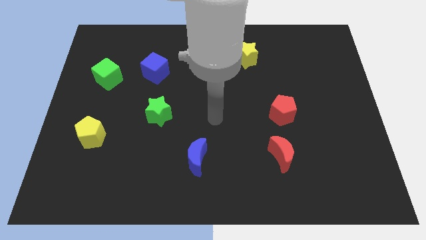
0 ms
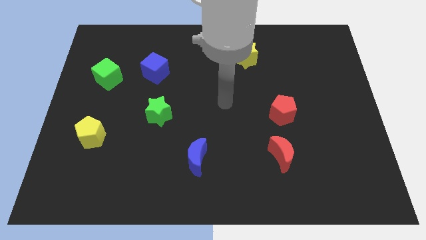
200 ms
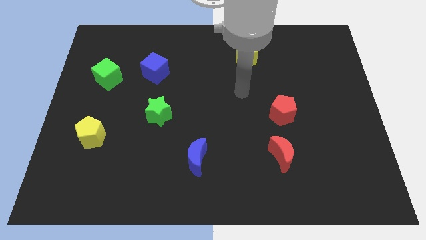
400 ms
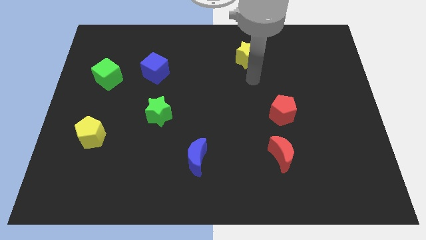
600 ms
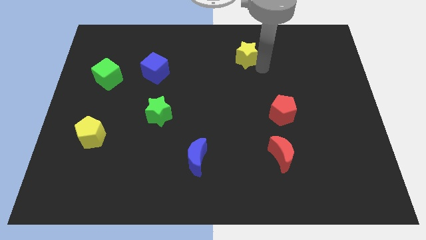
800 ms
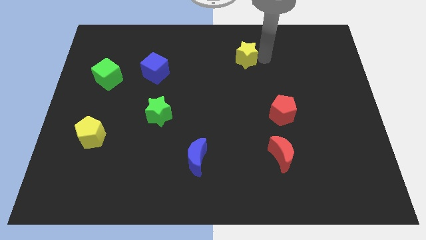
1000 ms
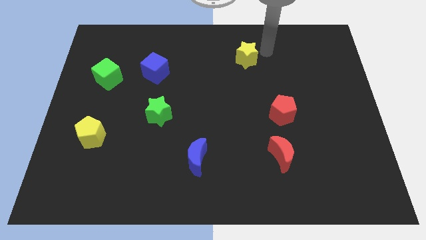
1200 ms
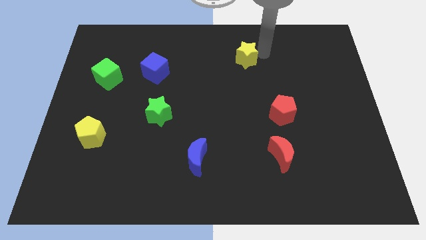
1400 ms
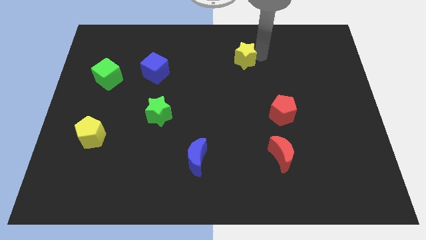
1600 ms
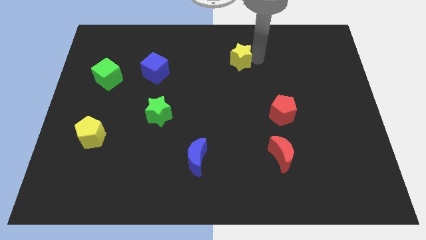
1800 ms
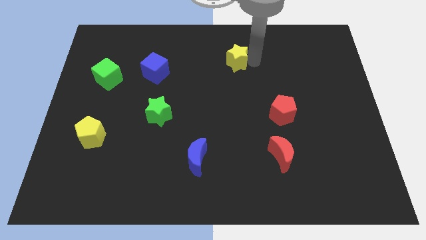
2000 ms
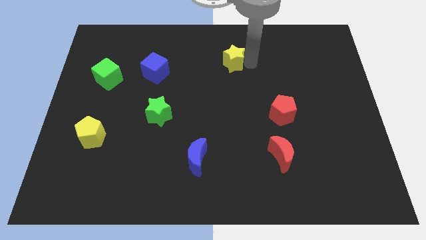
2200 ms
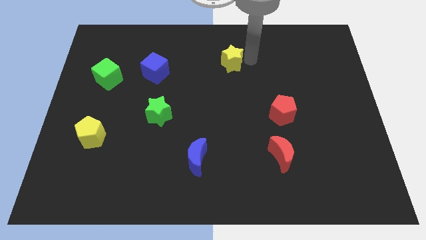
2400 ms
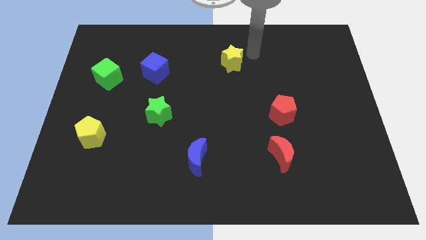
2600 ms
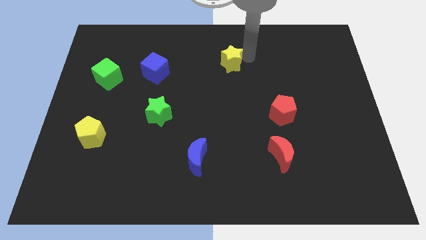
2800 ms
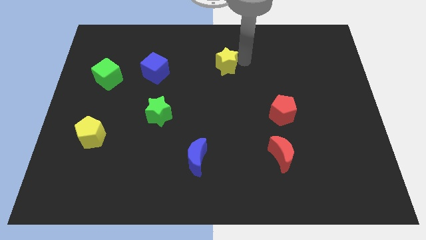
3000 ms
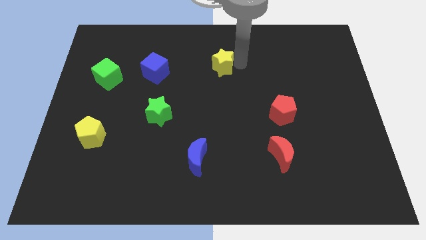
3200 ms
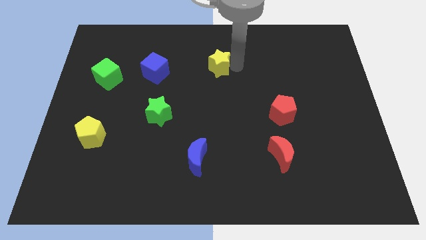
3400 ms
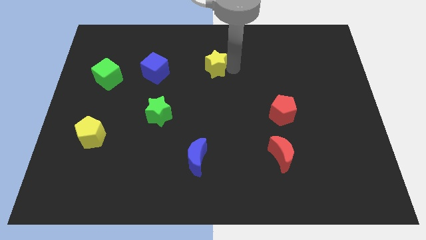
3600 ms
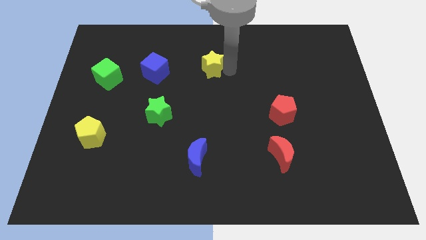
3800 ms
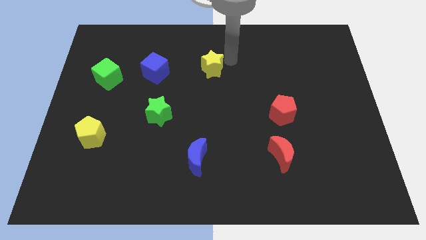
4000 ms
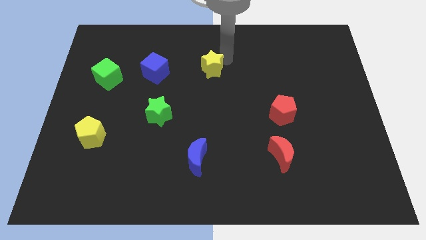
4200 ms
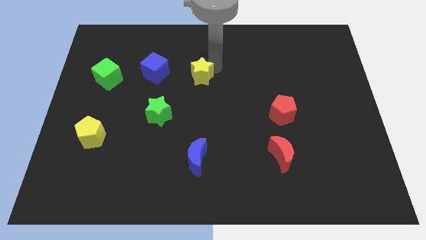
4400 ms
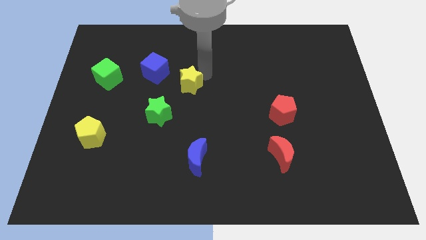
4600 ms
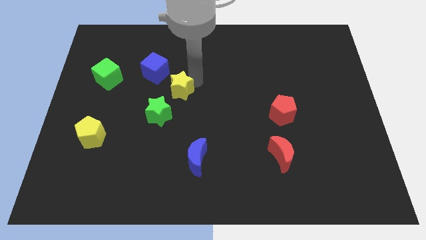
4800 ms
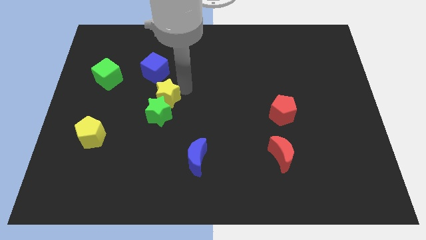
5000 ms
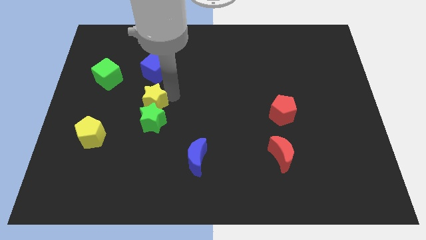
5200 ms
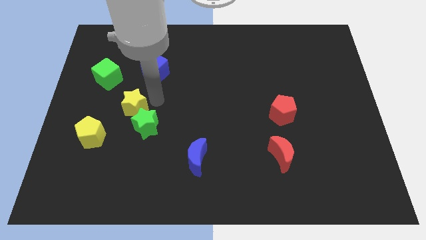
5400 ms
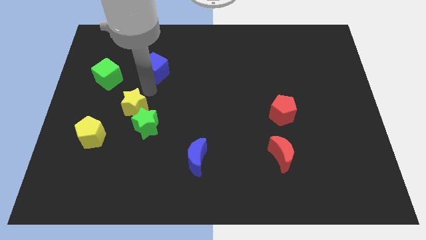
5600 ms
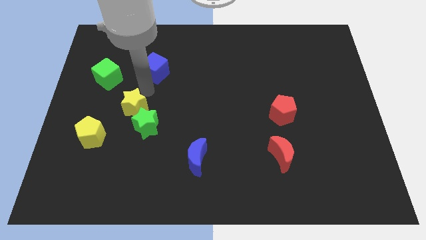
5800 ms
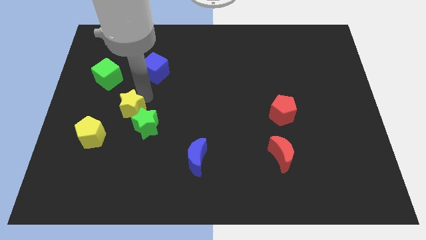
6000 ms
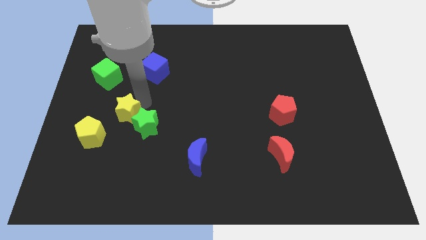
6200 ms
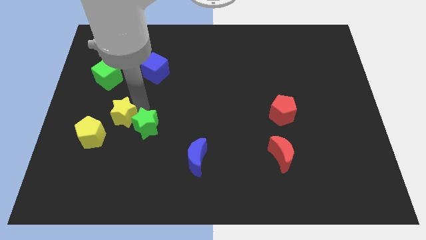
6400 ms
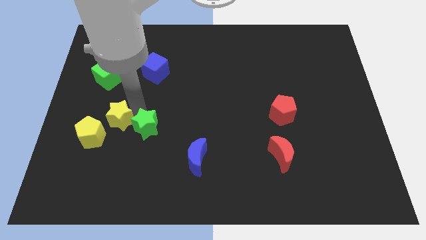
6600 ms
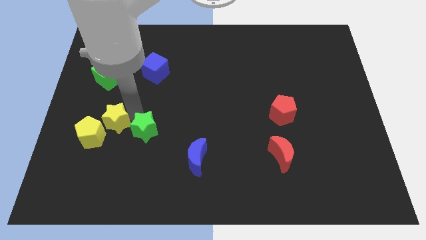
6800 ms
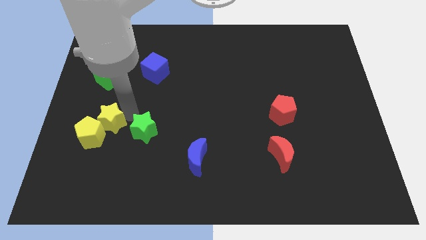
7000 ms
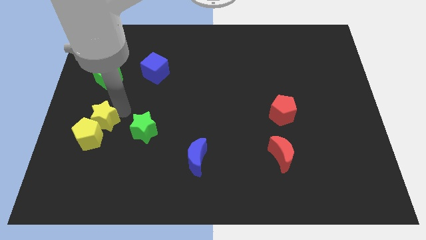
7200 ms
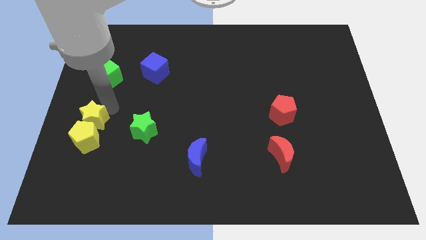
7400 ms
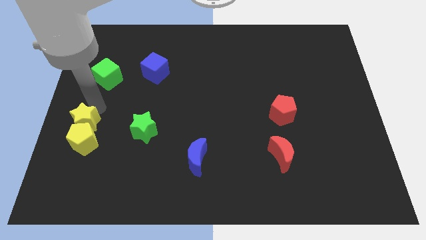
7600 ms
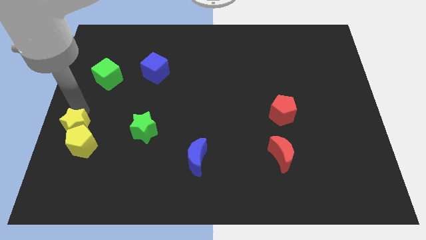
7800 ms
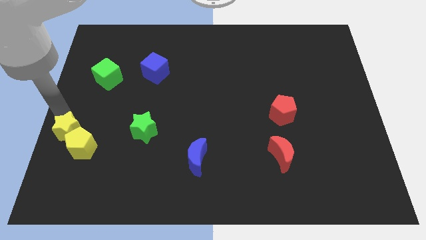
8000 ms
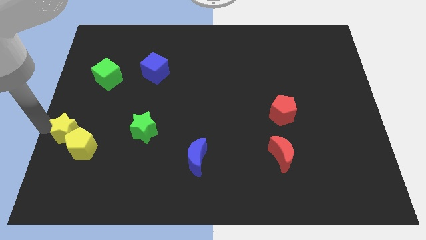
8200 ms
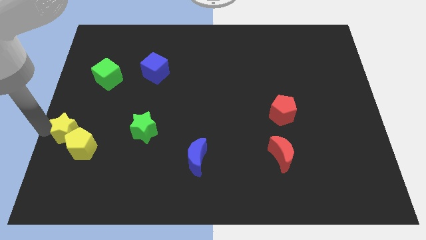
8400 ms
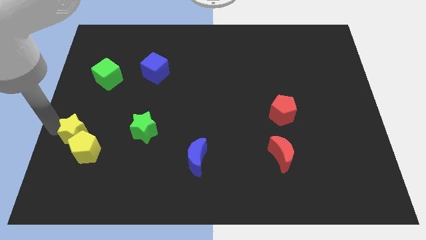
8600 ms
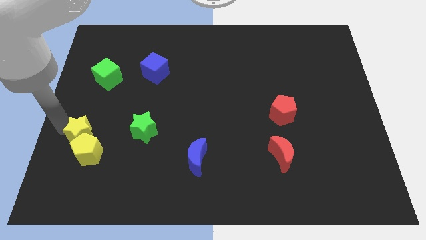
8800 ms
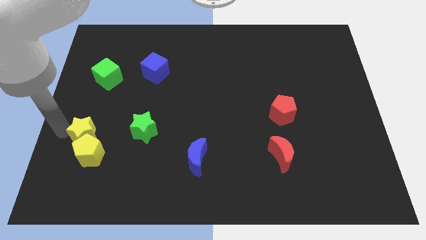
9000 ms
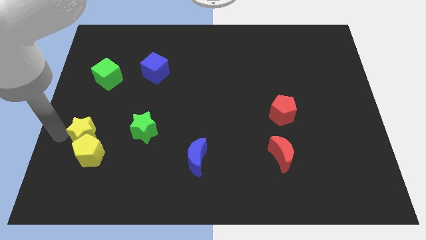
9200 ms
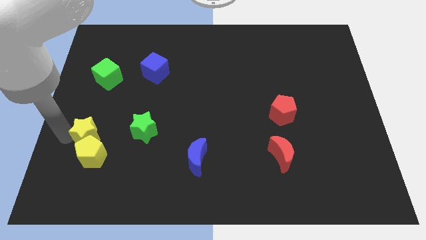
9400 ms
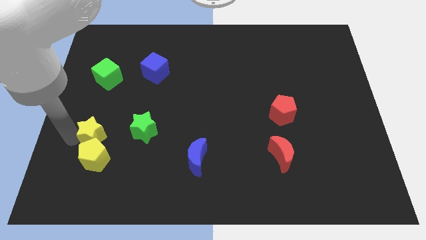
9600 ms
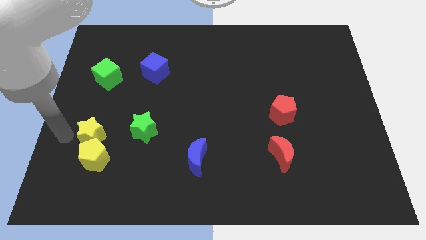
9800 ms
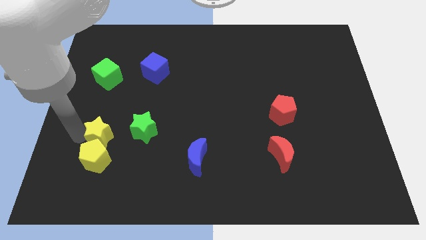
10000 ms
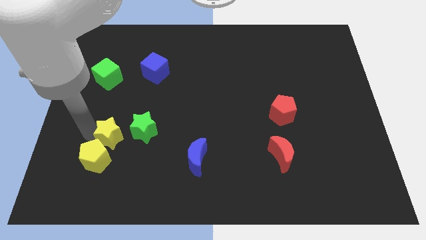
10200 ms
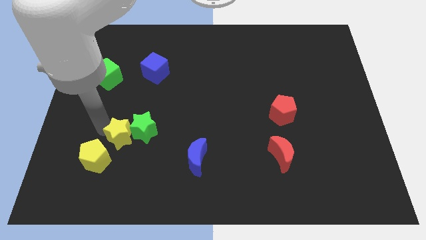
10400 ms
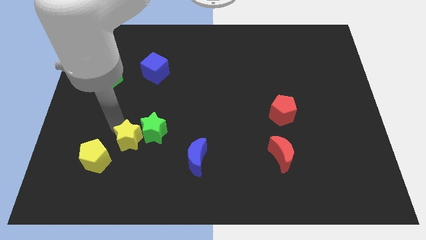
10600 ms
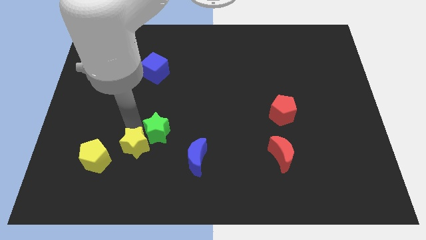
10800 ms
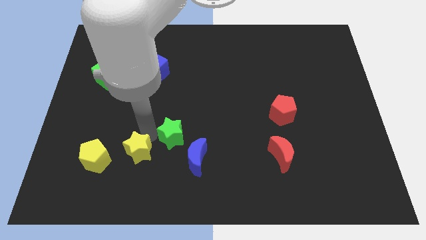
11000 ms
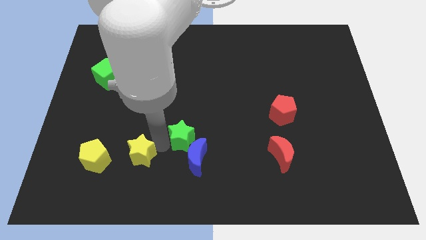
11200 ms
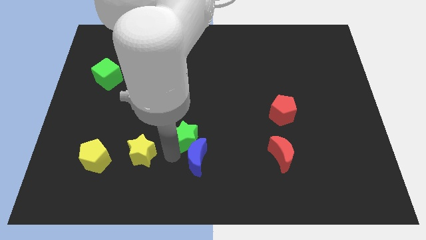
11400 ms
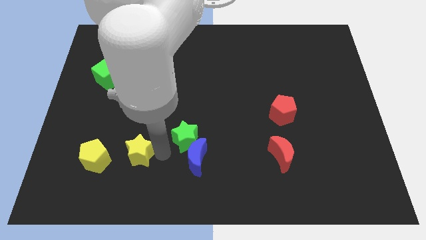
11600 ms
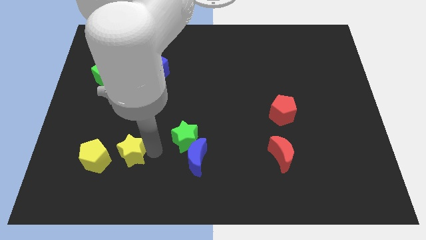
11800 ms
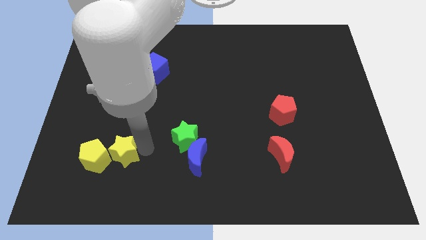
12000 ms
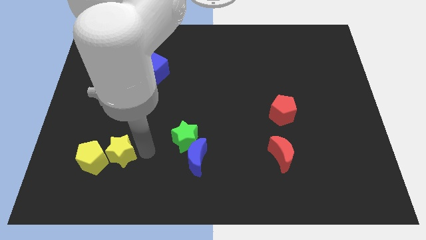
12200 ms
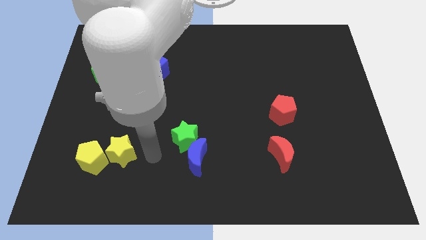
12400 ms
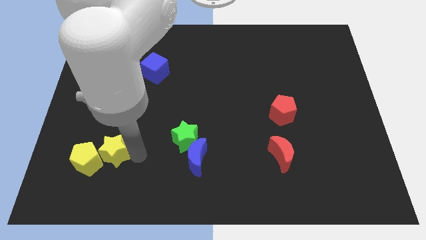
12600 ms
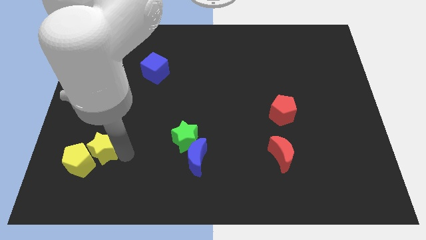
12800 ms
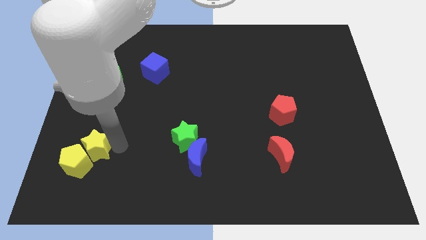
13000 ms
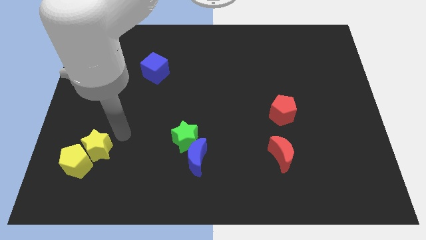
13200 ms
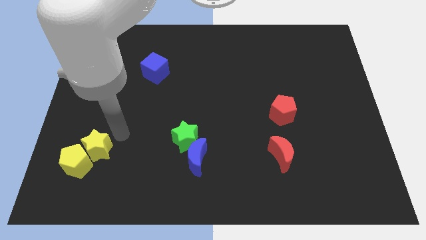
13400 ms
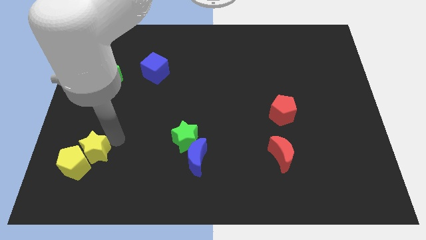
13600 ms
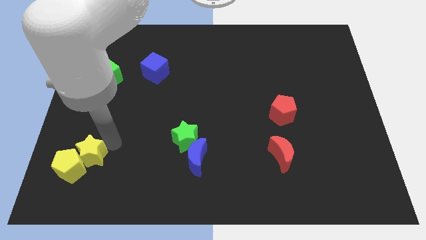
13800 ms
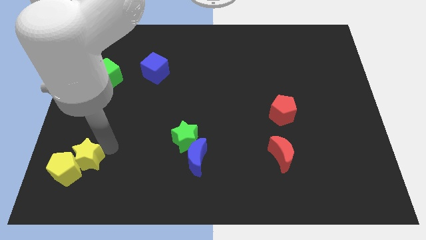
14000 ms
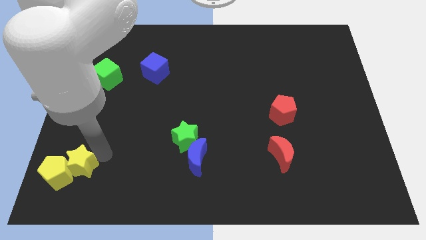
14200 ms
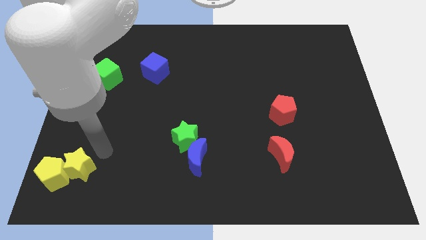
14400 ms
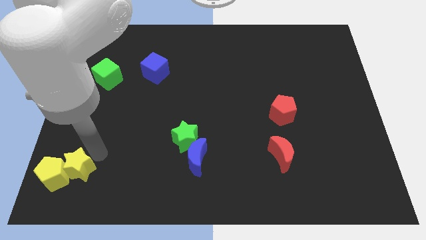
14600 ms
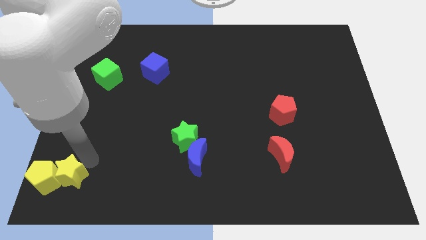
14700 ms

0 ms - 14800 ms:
move the yellow star to the bottom left of the board
